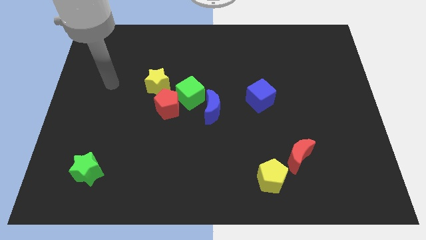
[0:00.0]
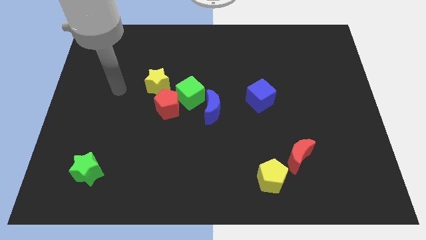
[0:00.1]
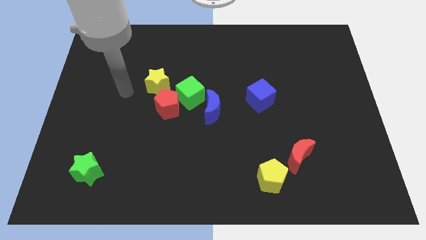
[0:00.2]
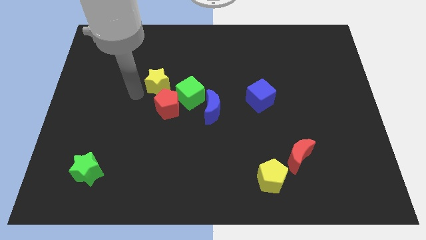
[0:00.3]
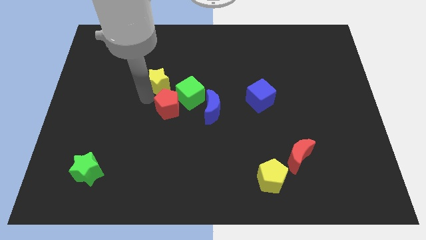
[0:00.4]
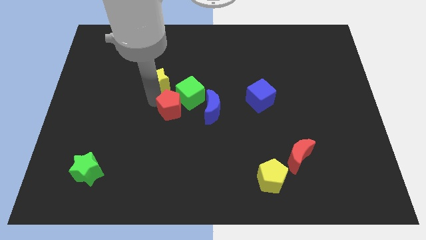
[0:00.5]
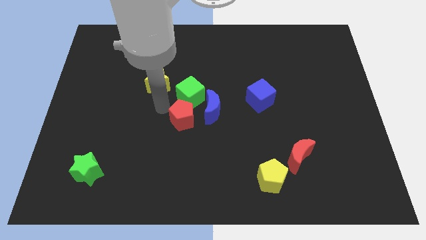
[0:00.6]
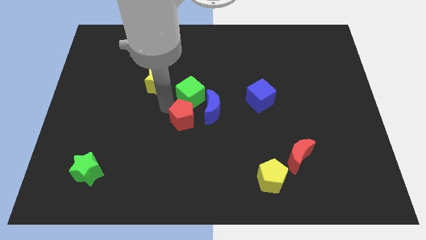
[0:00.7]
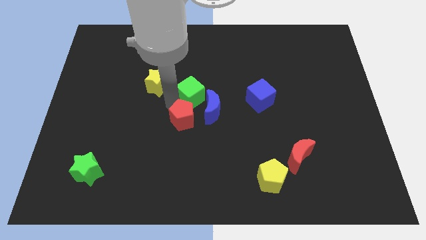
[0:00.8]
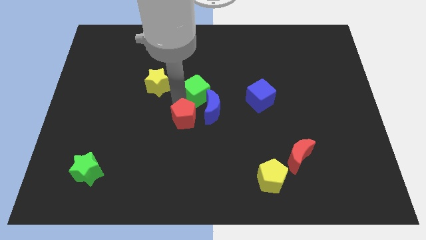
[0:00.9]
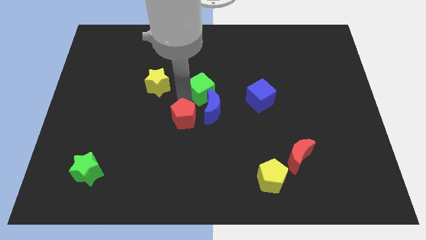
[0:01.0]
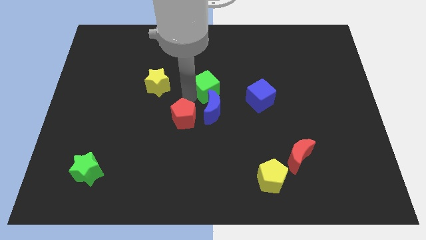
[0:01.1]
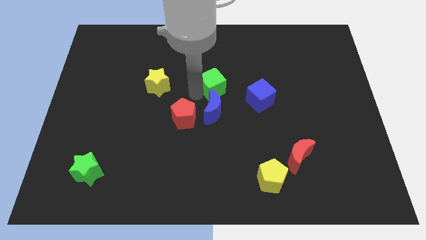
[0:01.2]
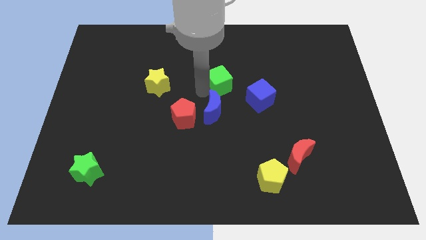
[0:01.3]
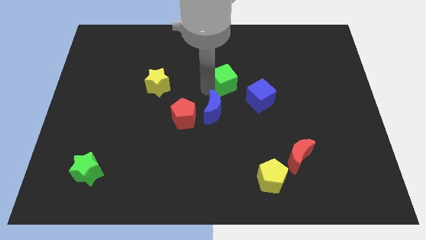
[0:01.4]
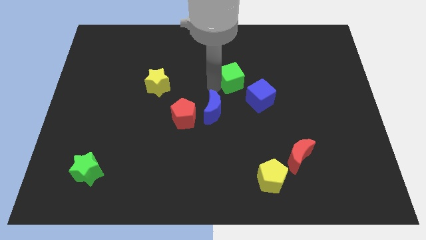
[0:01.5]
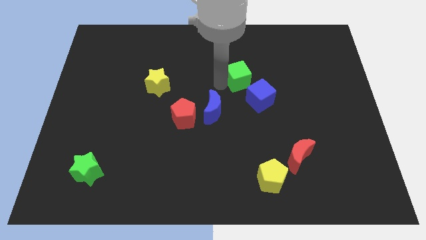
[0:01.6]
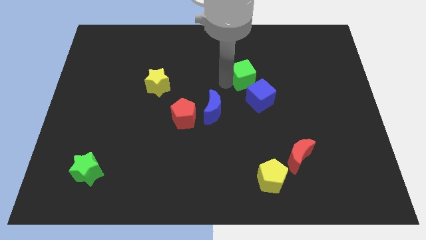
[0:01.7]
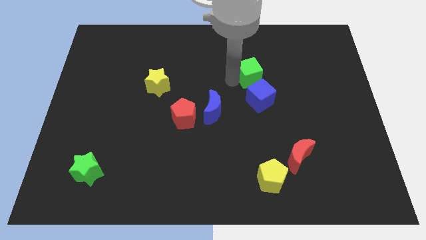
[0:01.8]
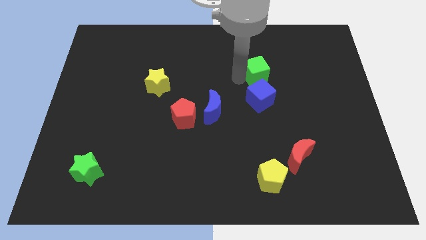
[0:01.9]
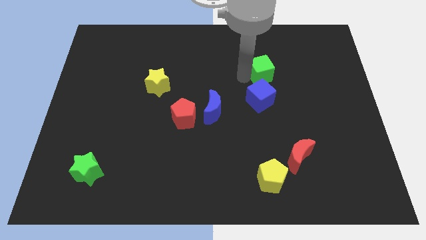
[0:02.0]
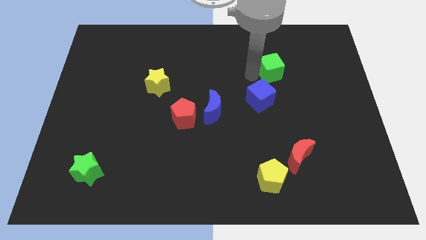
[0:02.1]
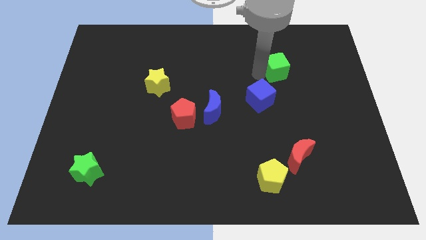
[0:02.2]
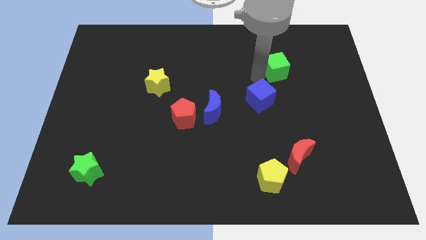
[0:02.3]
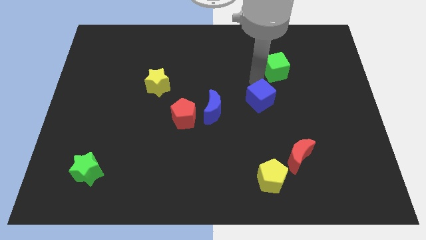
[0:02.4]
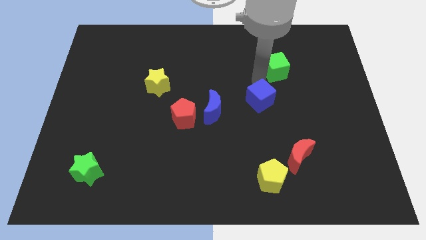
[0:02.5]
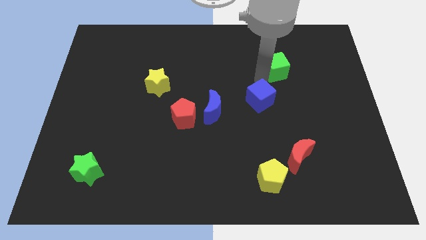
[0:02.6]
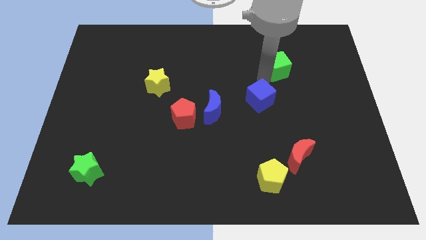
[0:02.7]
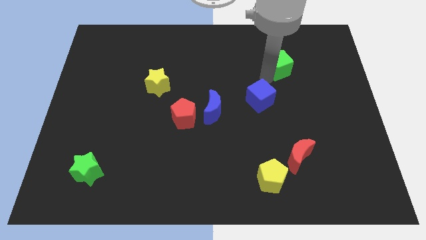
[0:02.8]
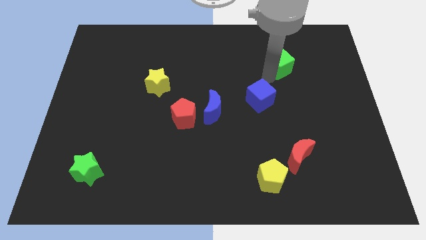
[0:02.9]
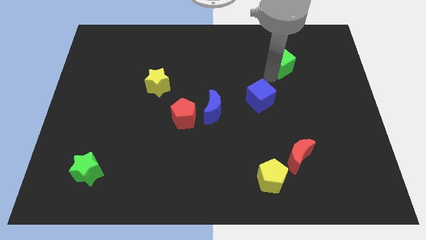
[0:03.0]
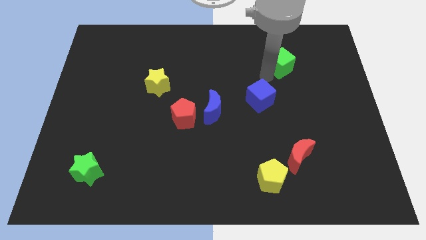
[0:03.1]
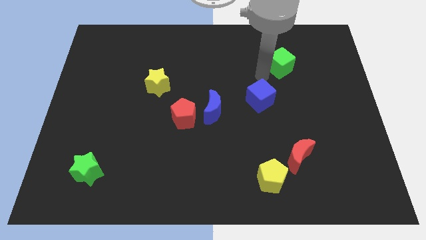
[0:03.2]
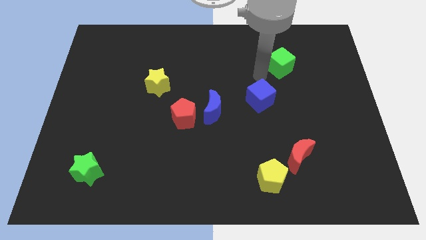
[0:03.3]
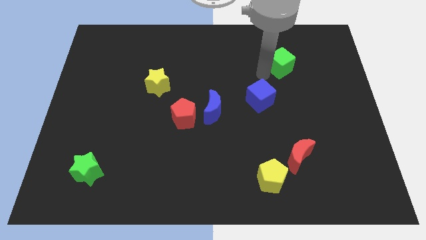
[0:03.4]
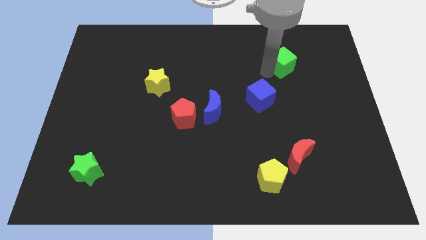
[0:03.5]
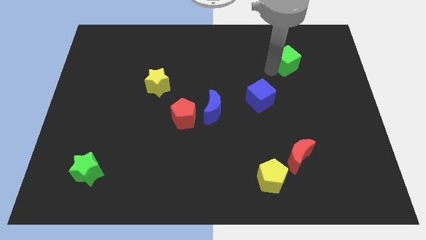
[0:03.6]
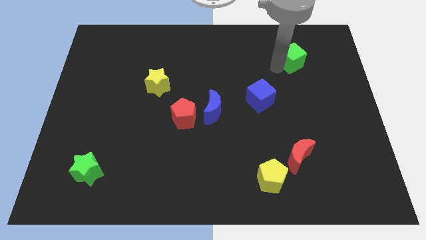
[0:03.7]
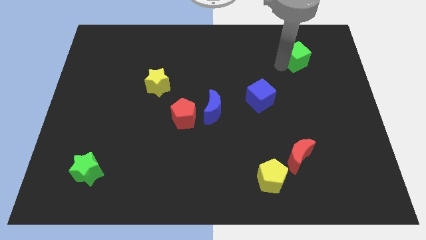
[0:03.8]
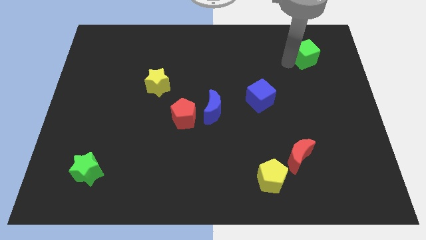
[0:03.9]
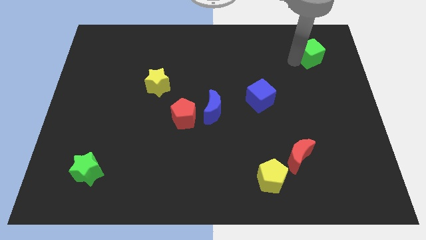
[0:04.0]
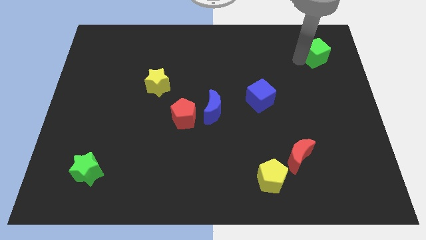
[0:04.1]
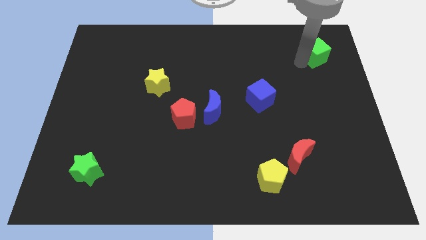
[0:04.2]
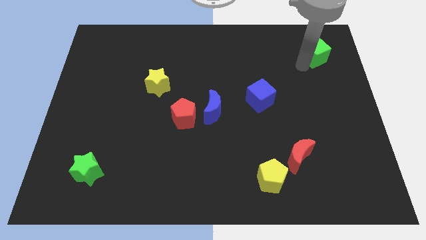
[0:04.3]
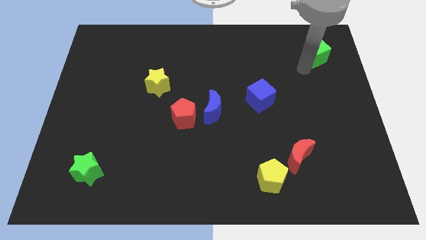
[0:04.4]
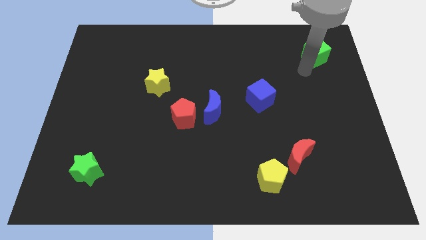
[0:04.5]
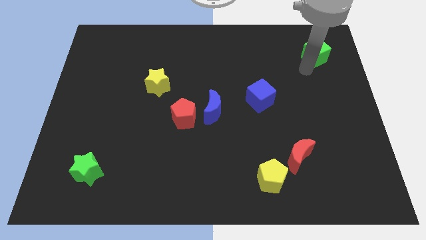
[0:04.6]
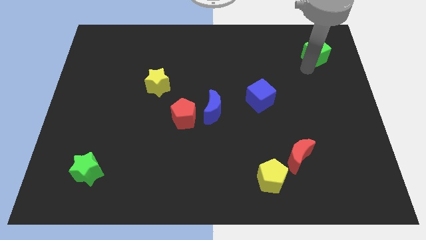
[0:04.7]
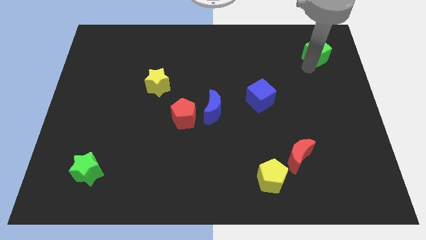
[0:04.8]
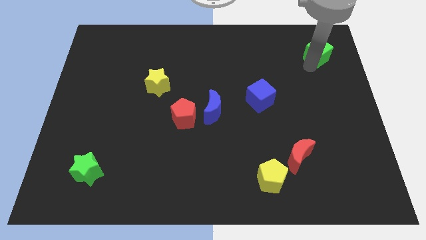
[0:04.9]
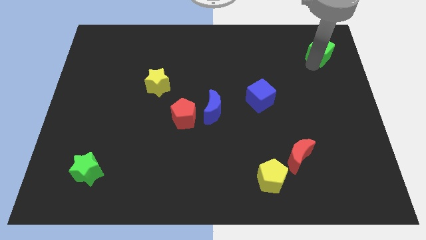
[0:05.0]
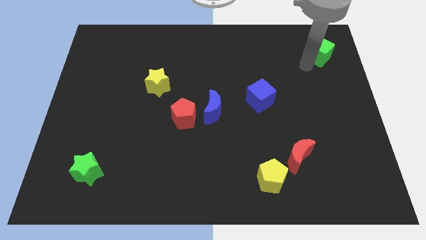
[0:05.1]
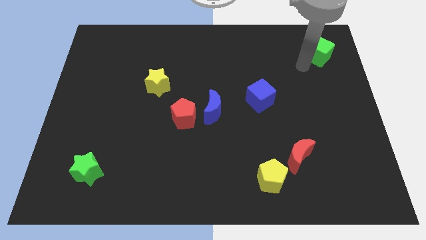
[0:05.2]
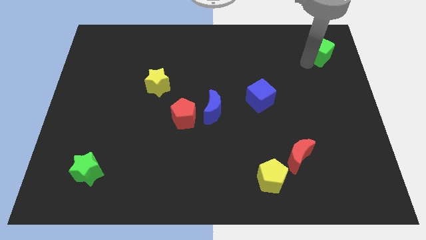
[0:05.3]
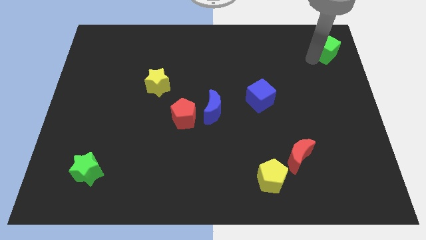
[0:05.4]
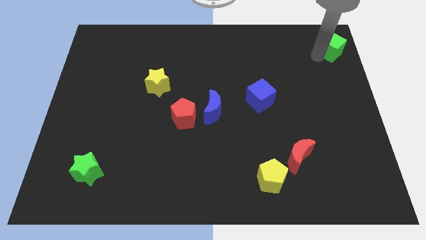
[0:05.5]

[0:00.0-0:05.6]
slide the green cube to the top right corner

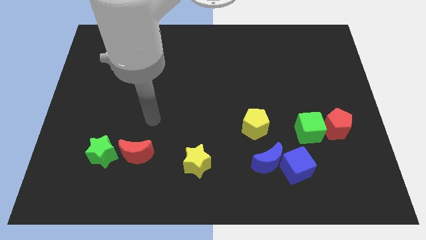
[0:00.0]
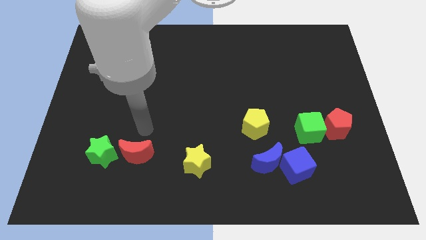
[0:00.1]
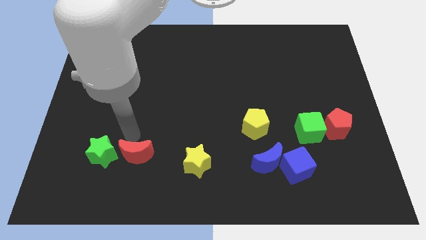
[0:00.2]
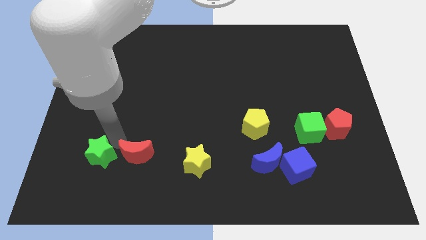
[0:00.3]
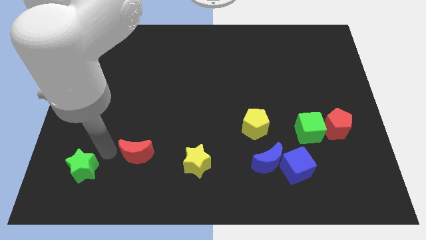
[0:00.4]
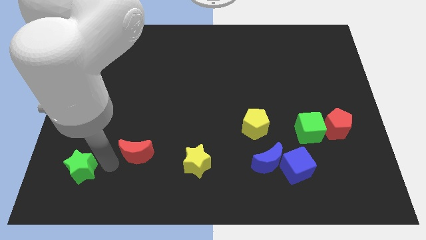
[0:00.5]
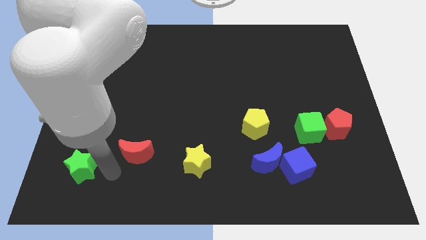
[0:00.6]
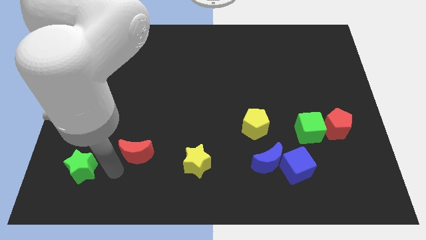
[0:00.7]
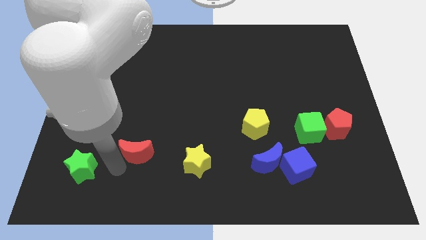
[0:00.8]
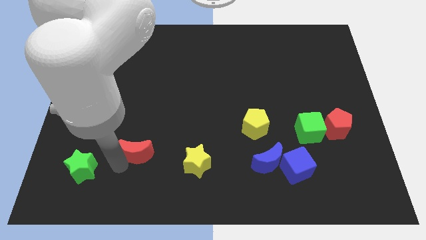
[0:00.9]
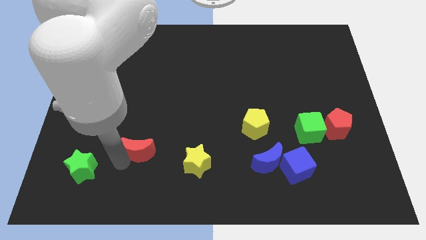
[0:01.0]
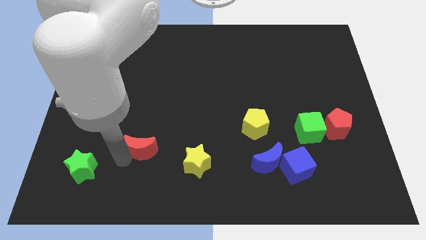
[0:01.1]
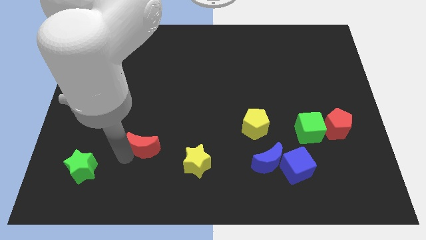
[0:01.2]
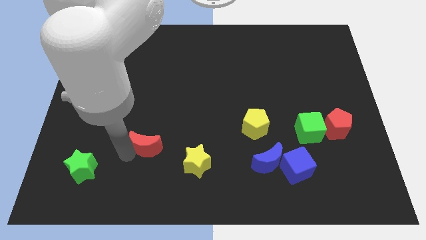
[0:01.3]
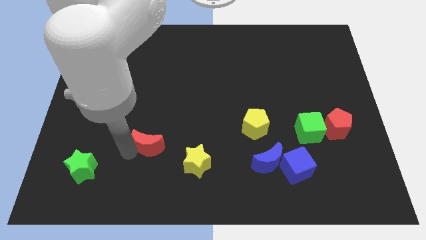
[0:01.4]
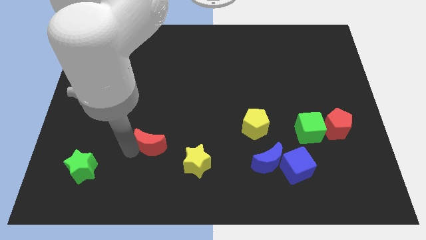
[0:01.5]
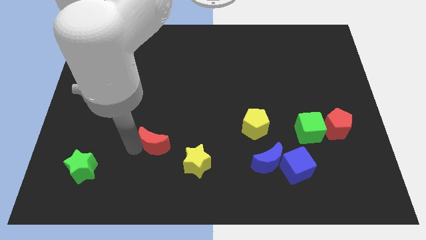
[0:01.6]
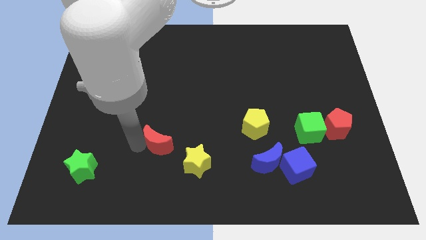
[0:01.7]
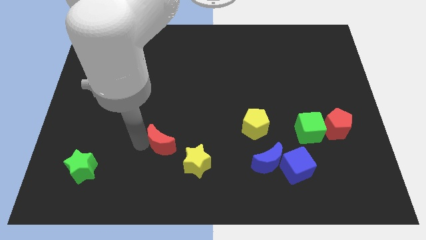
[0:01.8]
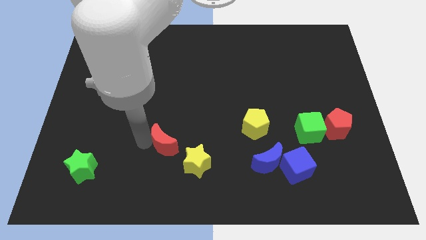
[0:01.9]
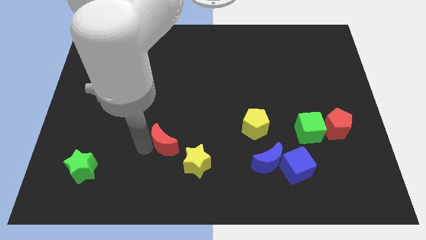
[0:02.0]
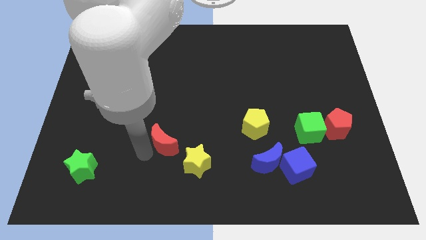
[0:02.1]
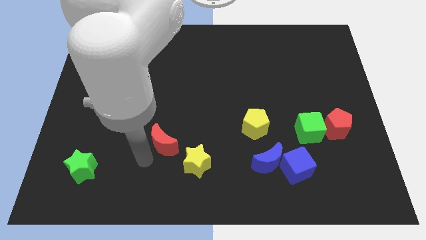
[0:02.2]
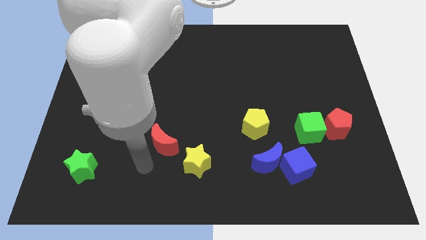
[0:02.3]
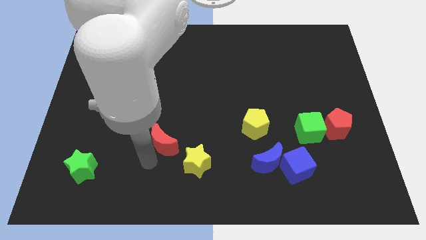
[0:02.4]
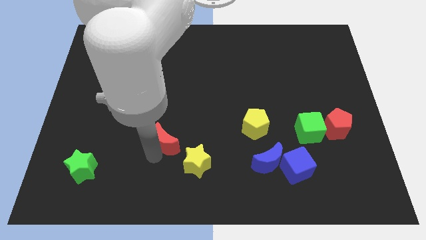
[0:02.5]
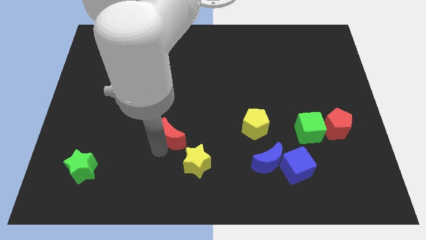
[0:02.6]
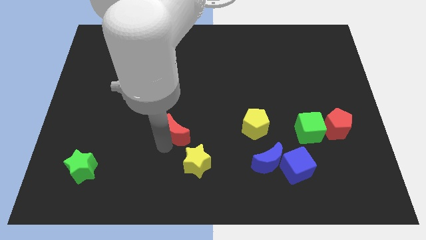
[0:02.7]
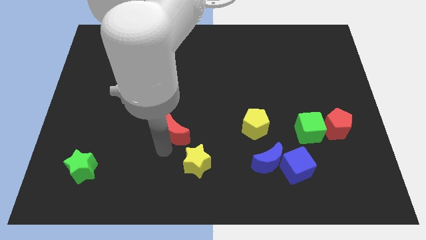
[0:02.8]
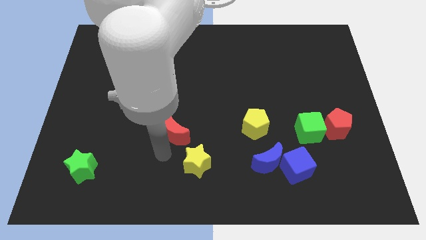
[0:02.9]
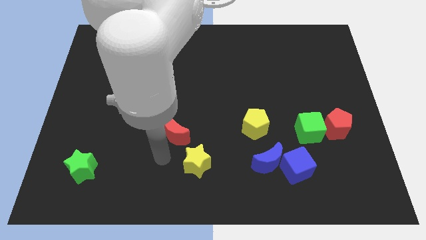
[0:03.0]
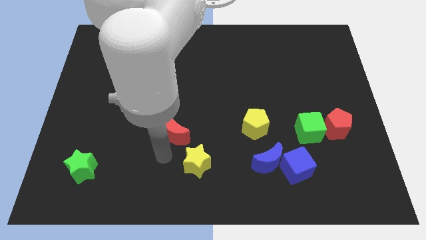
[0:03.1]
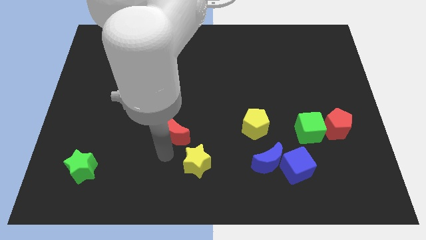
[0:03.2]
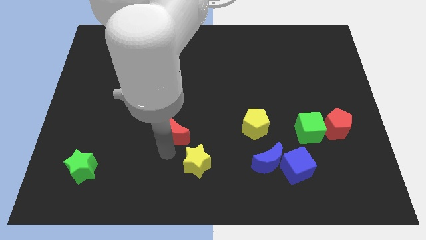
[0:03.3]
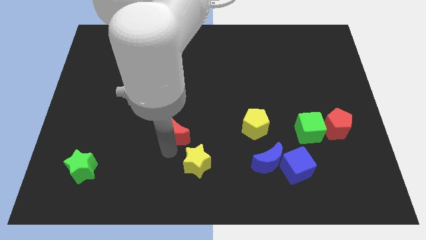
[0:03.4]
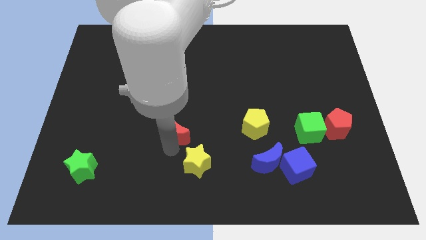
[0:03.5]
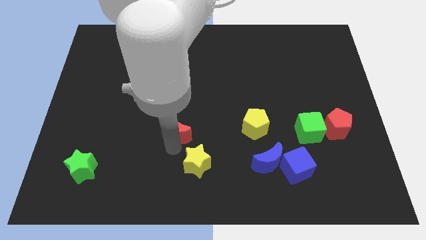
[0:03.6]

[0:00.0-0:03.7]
slide the red moon to the middle
